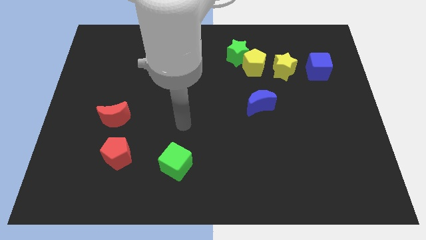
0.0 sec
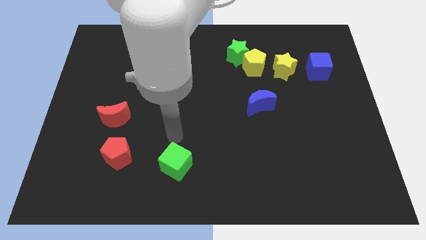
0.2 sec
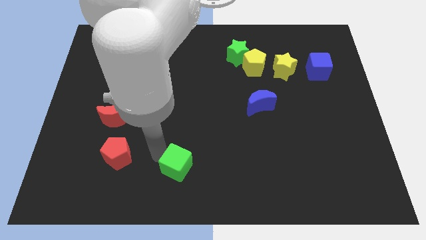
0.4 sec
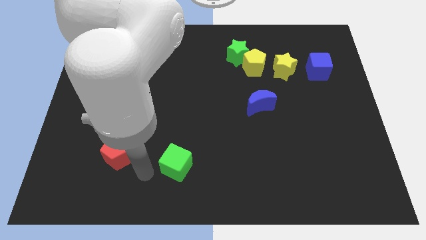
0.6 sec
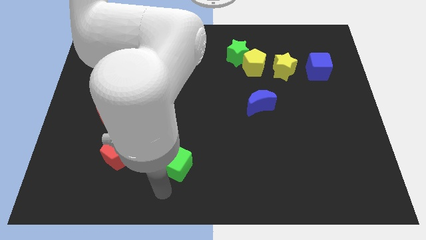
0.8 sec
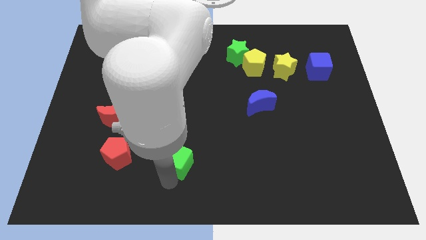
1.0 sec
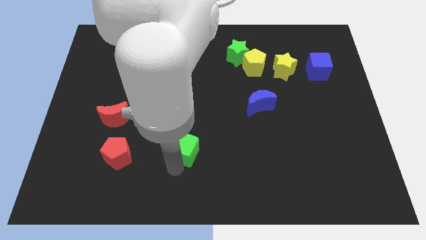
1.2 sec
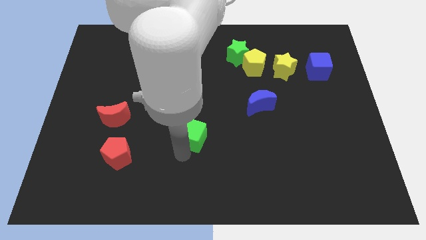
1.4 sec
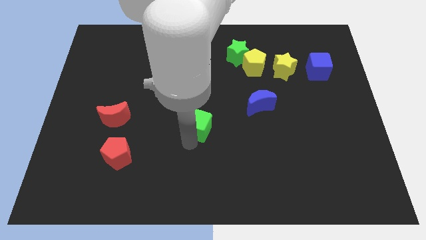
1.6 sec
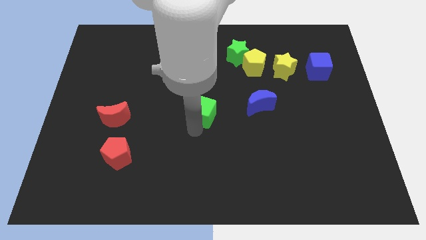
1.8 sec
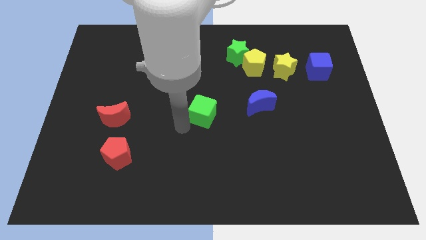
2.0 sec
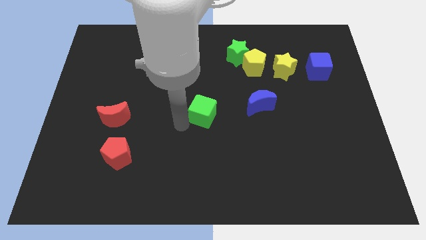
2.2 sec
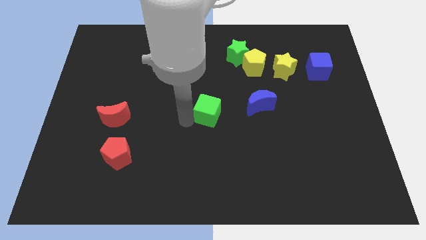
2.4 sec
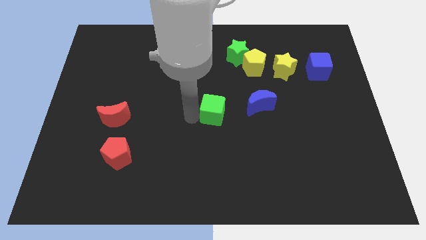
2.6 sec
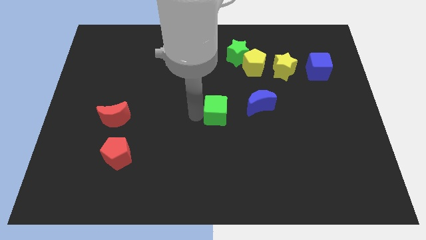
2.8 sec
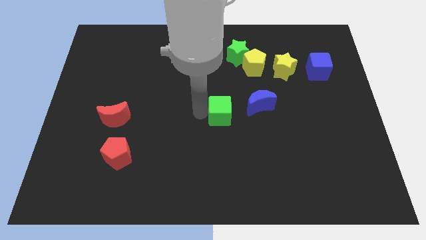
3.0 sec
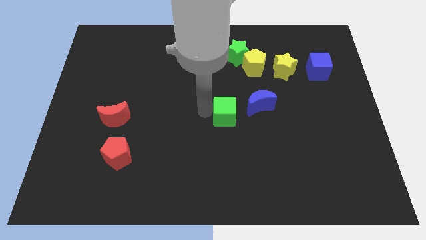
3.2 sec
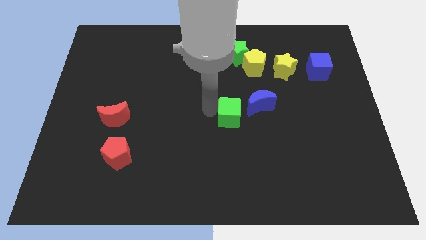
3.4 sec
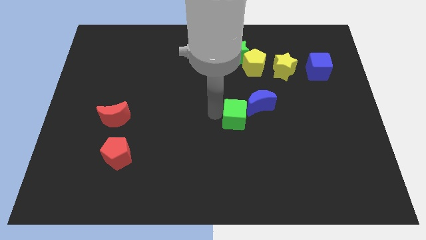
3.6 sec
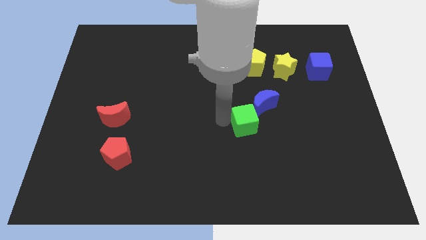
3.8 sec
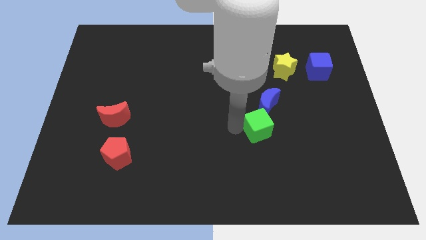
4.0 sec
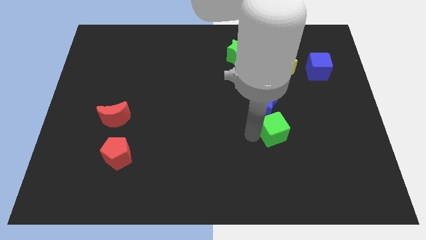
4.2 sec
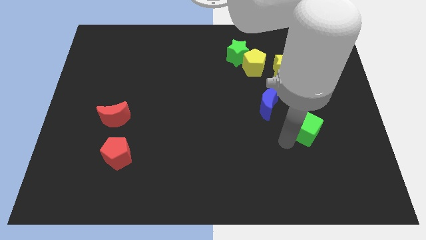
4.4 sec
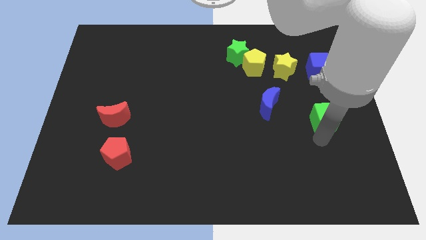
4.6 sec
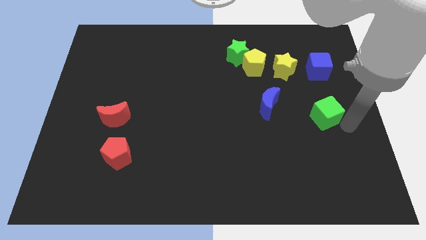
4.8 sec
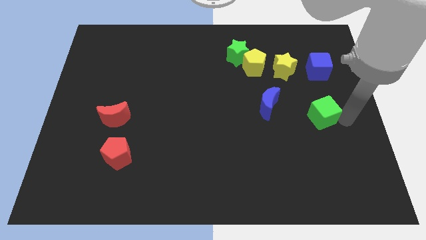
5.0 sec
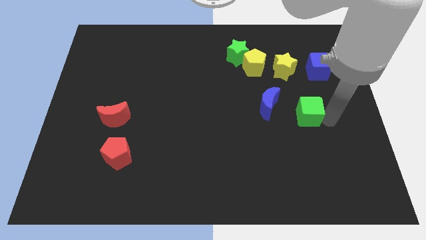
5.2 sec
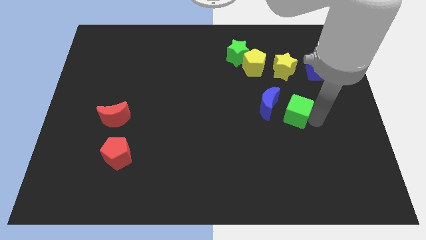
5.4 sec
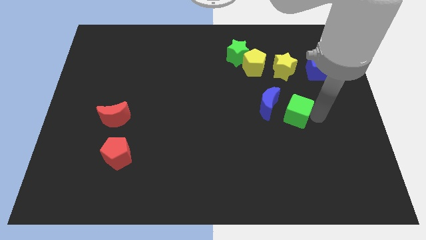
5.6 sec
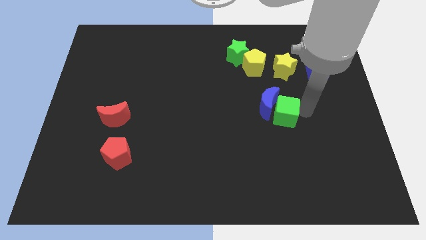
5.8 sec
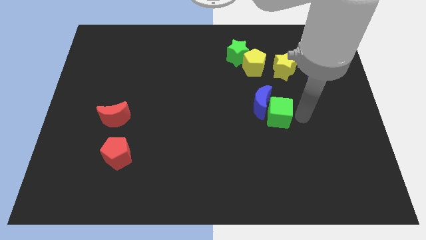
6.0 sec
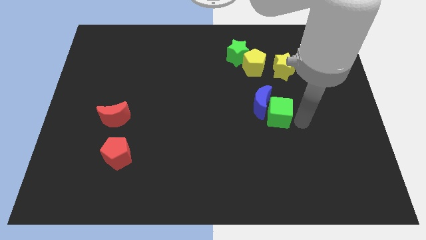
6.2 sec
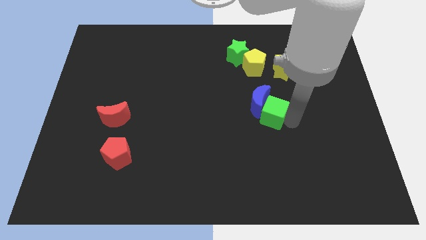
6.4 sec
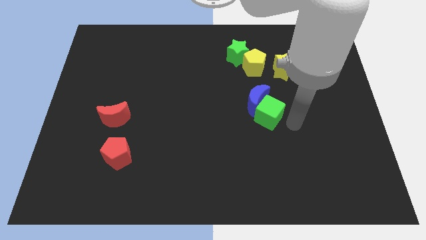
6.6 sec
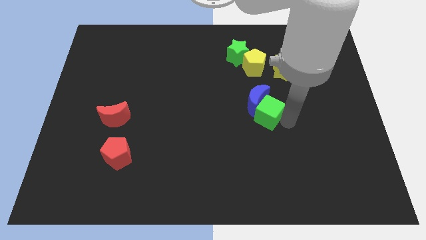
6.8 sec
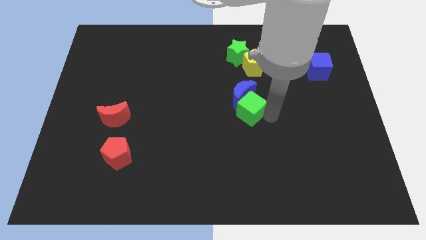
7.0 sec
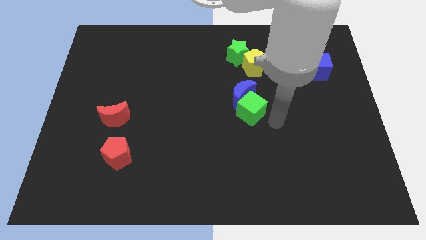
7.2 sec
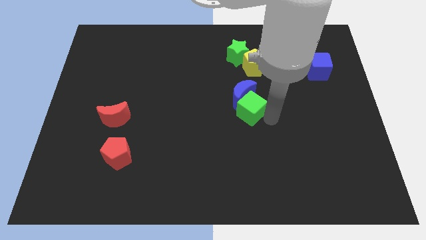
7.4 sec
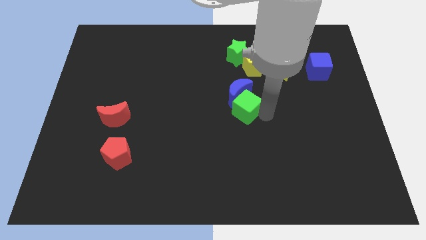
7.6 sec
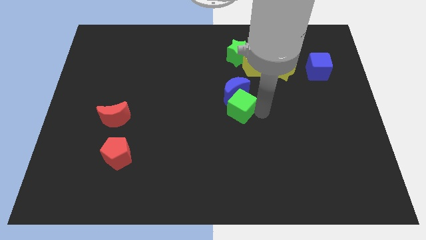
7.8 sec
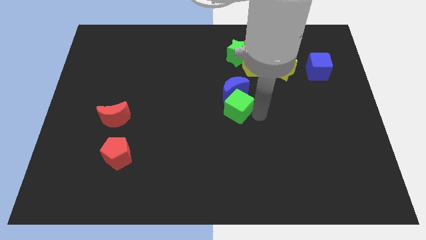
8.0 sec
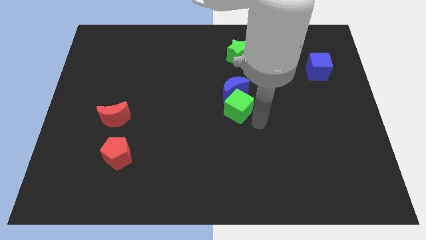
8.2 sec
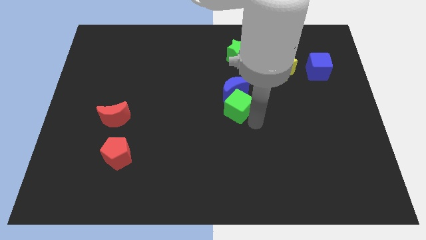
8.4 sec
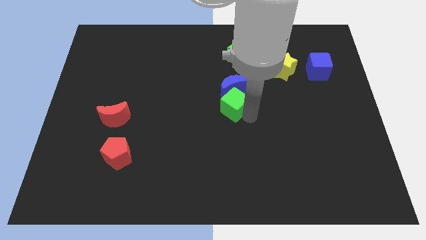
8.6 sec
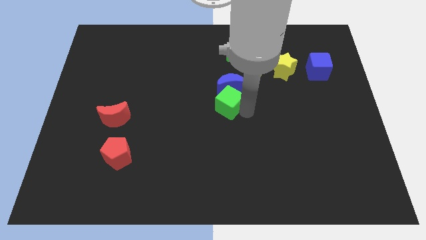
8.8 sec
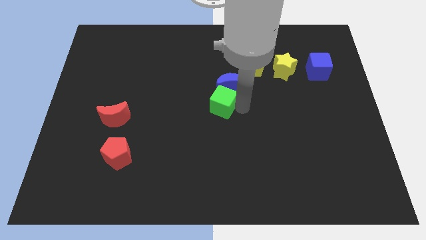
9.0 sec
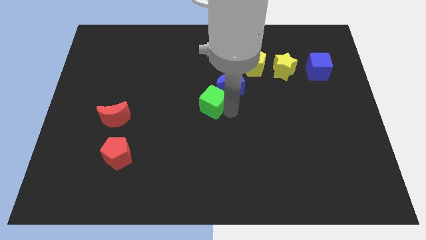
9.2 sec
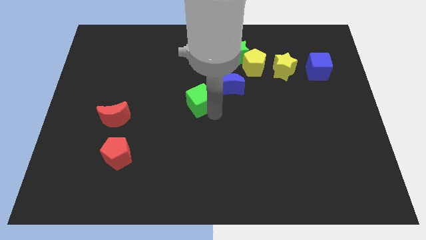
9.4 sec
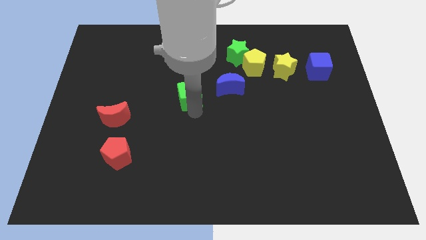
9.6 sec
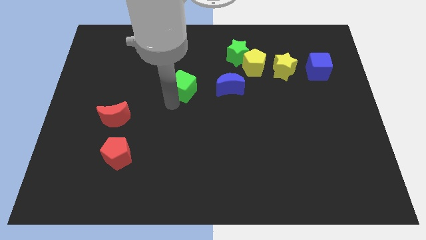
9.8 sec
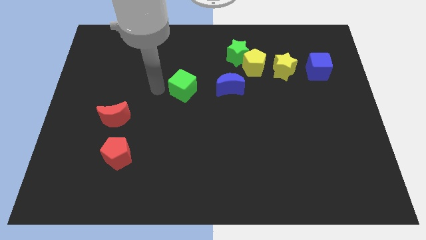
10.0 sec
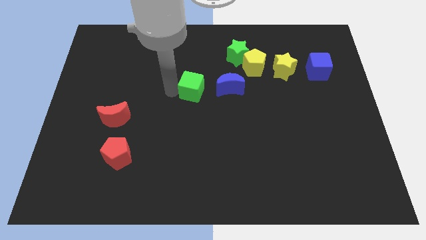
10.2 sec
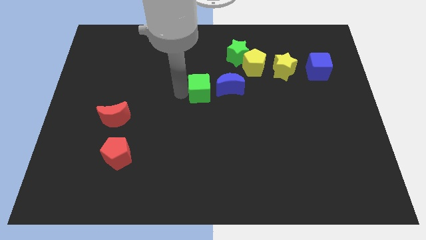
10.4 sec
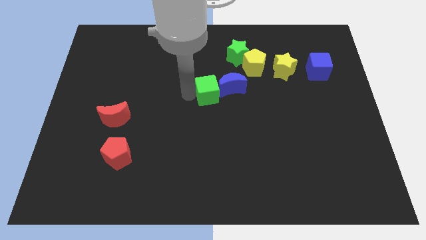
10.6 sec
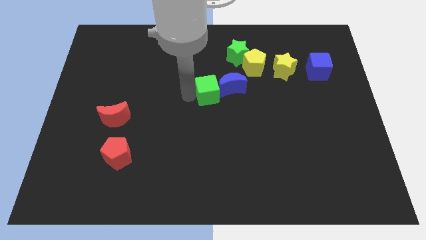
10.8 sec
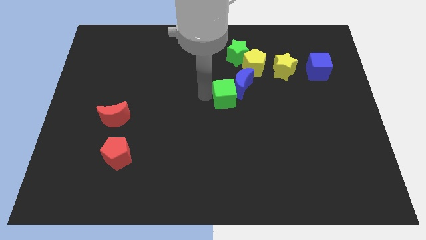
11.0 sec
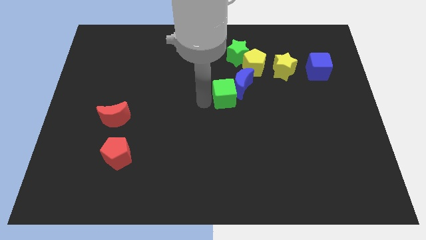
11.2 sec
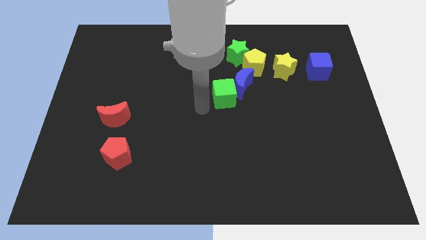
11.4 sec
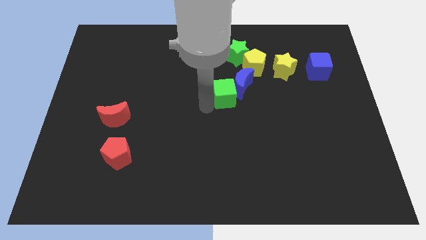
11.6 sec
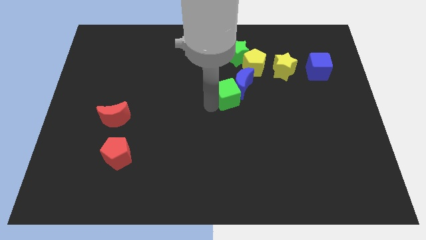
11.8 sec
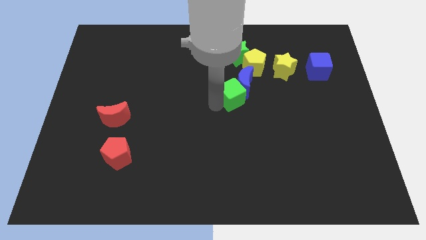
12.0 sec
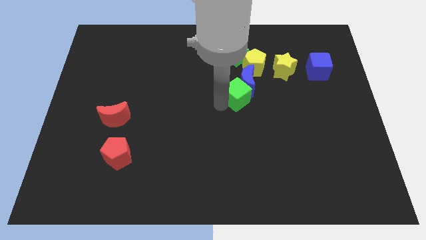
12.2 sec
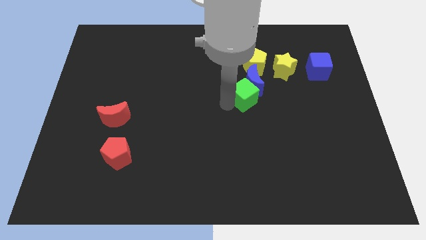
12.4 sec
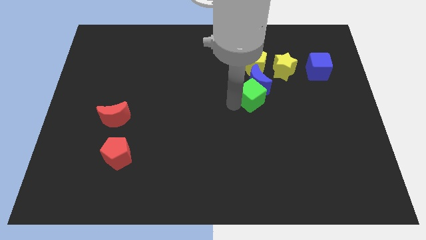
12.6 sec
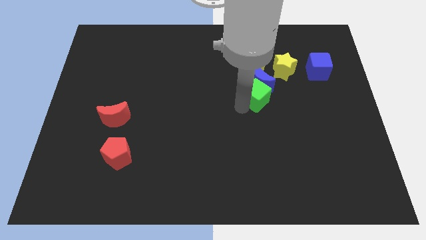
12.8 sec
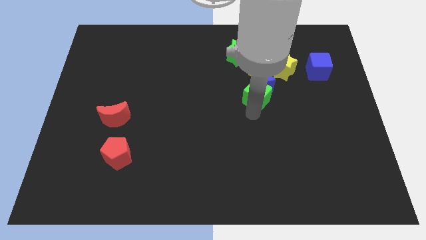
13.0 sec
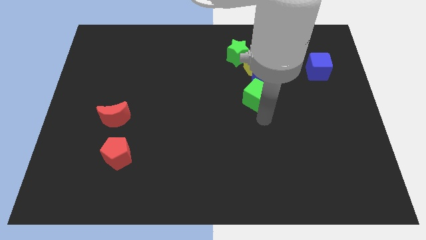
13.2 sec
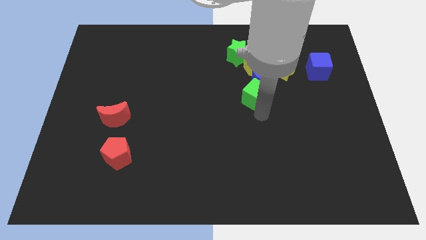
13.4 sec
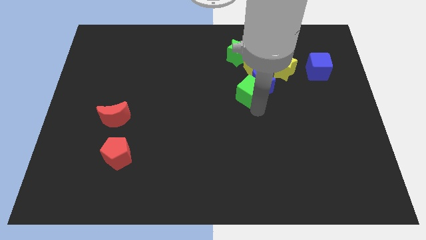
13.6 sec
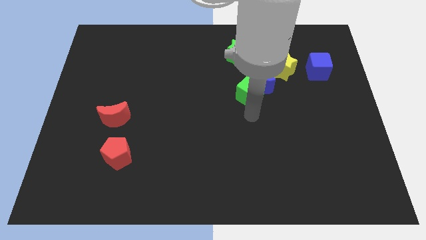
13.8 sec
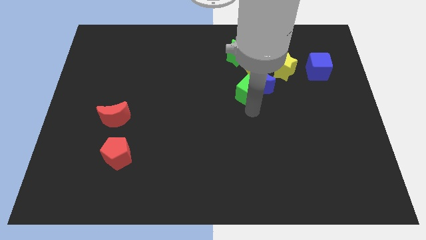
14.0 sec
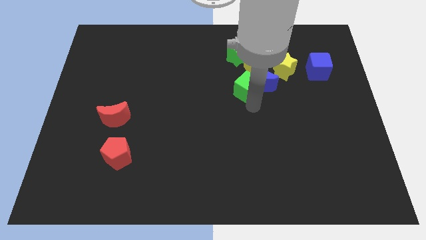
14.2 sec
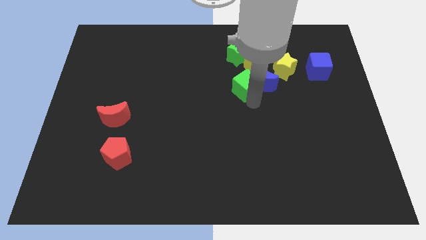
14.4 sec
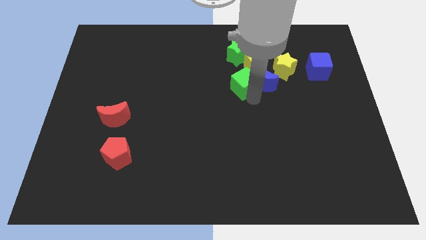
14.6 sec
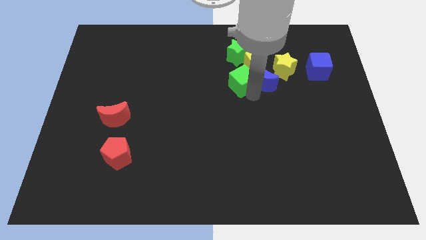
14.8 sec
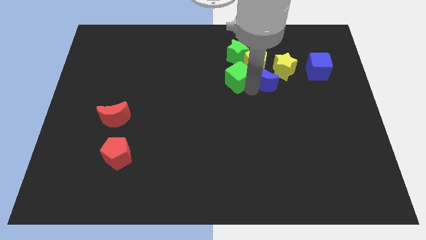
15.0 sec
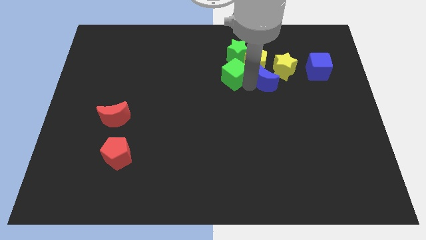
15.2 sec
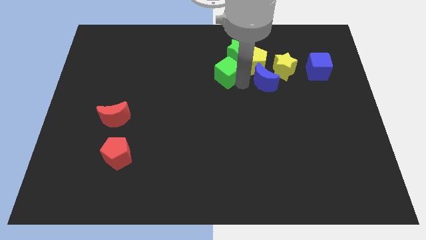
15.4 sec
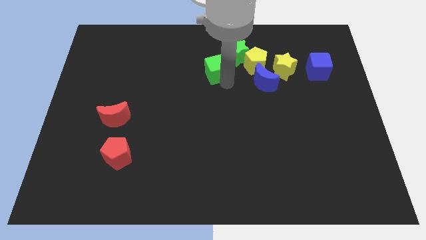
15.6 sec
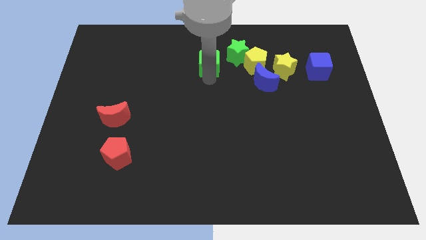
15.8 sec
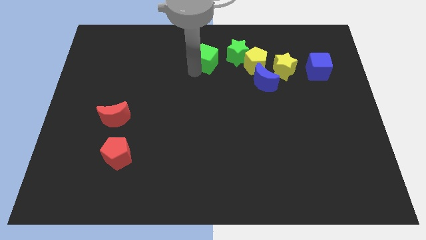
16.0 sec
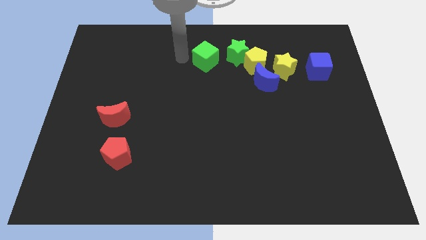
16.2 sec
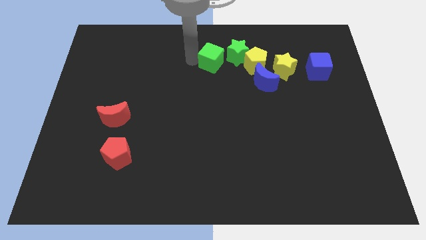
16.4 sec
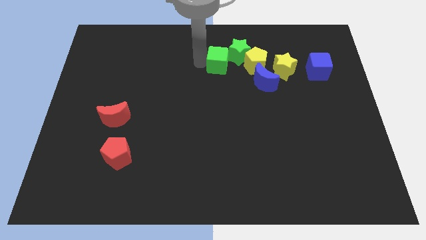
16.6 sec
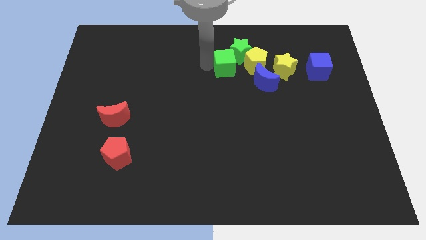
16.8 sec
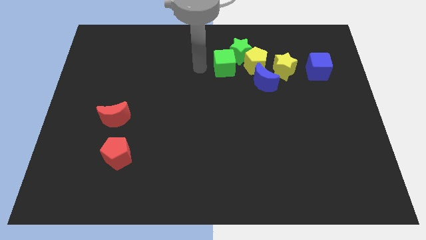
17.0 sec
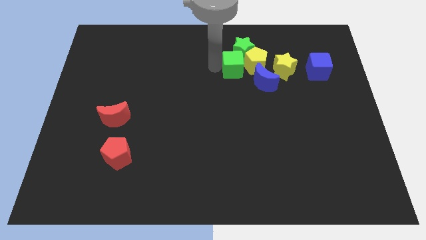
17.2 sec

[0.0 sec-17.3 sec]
move the green cube close to the yellow pentagon
